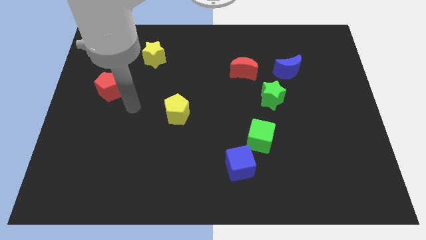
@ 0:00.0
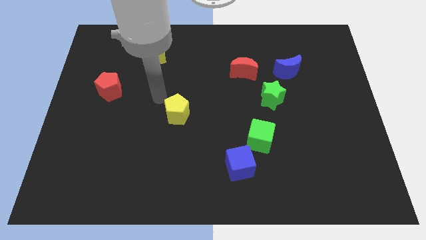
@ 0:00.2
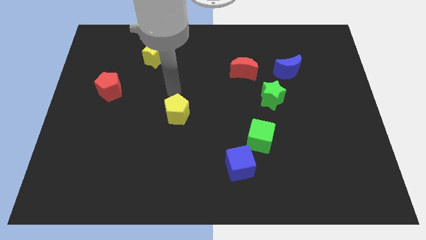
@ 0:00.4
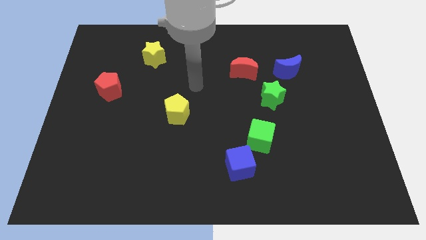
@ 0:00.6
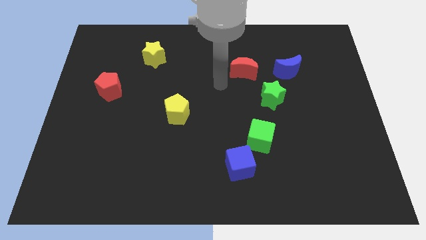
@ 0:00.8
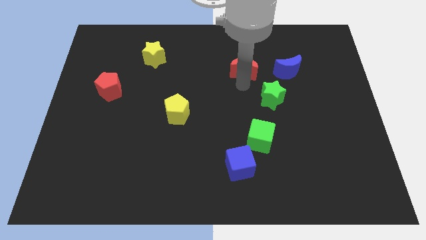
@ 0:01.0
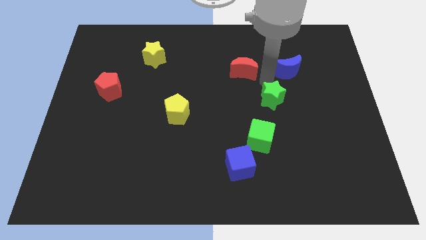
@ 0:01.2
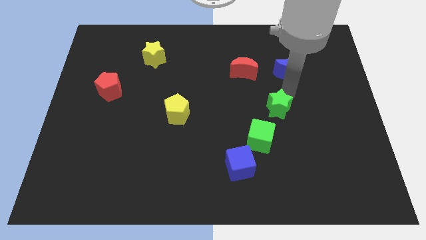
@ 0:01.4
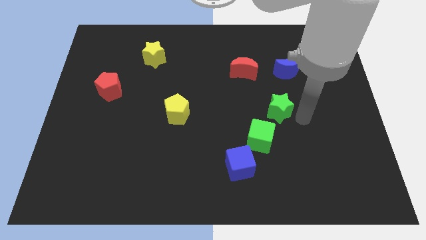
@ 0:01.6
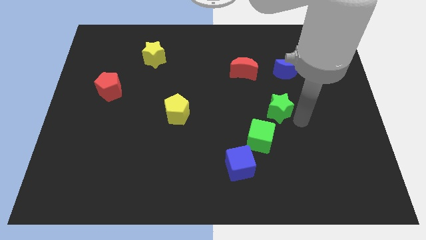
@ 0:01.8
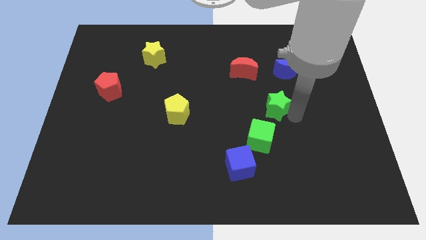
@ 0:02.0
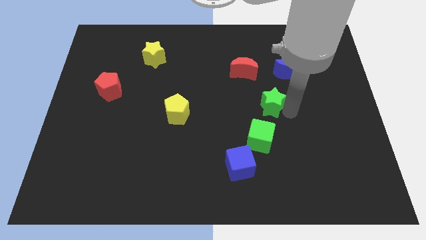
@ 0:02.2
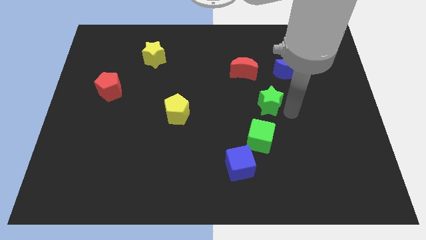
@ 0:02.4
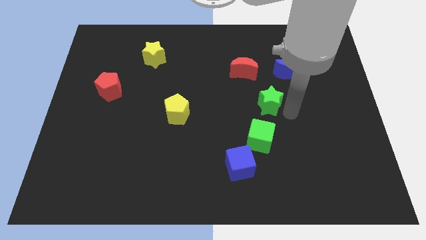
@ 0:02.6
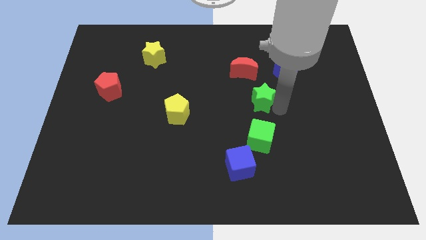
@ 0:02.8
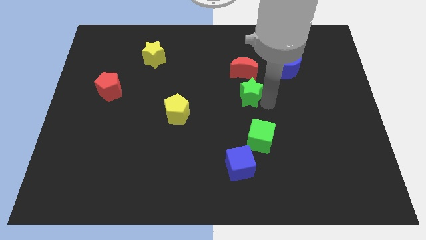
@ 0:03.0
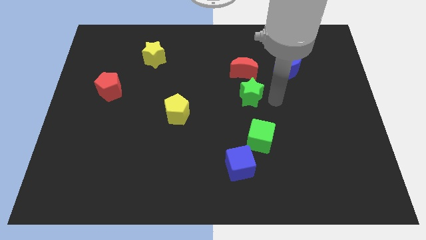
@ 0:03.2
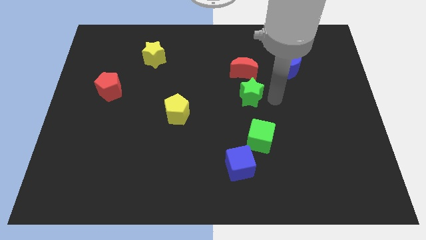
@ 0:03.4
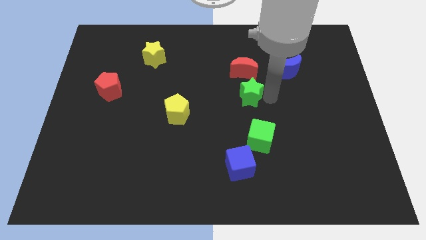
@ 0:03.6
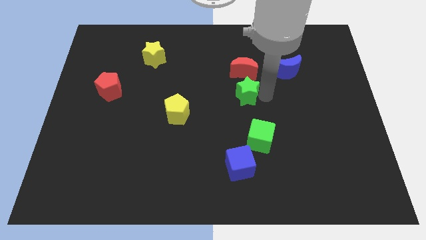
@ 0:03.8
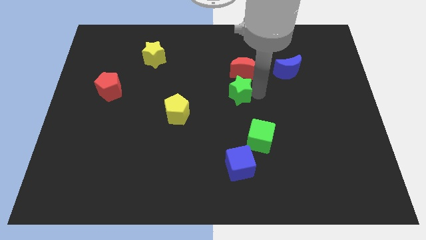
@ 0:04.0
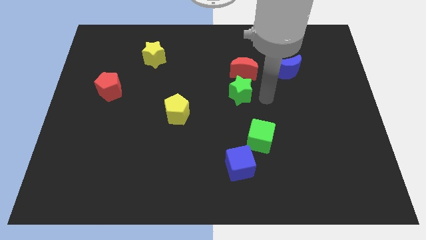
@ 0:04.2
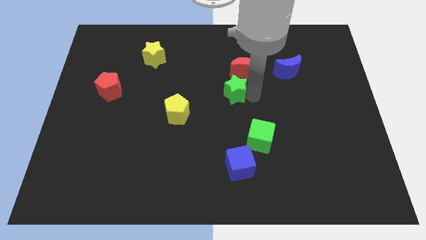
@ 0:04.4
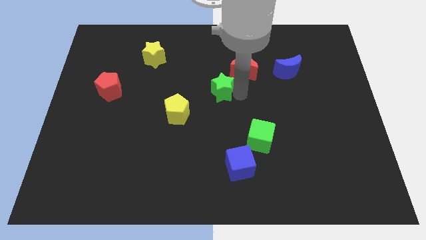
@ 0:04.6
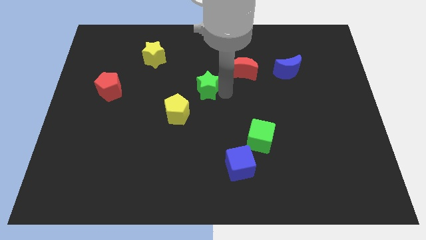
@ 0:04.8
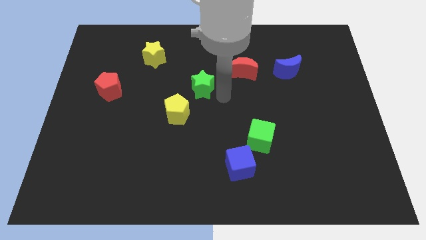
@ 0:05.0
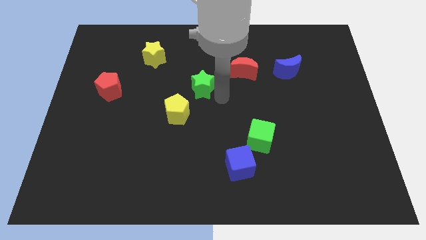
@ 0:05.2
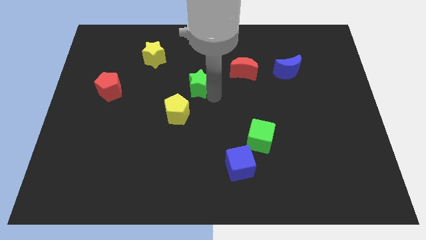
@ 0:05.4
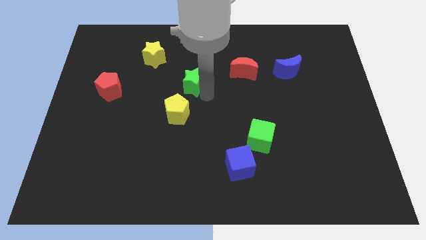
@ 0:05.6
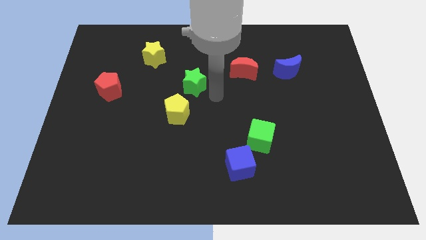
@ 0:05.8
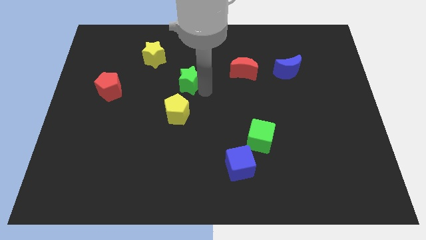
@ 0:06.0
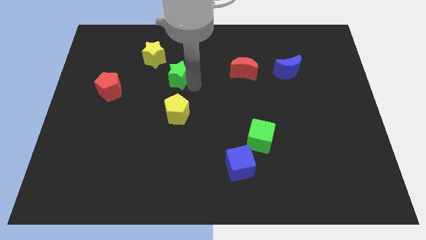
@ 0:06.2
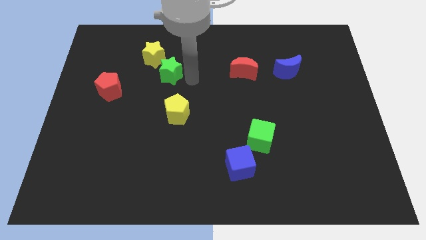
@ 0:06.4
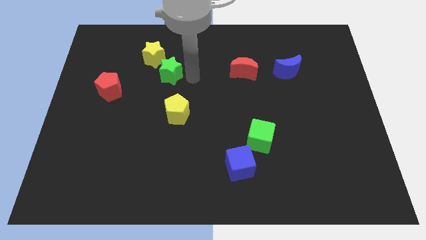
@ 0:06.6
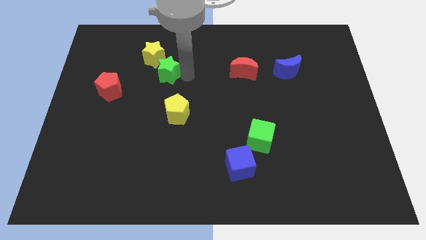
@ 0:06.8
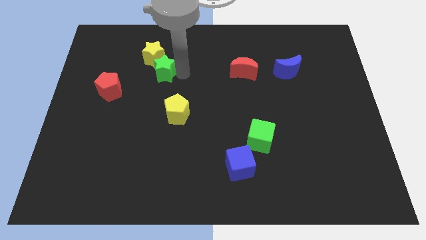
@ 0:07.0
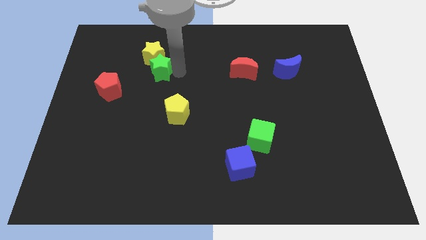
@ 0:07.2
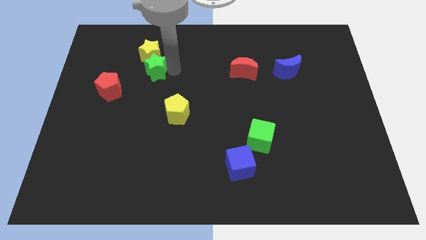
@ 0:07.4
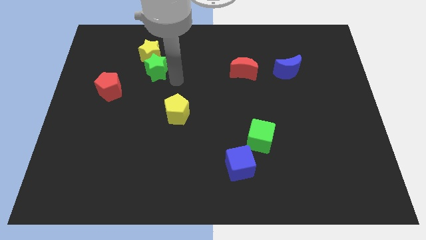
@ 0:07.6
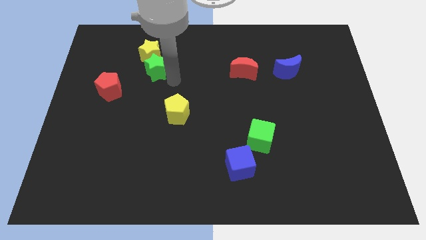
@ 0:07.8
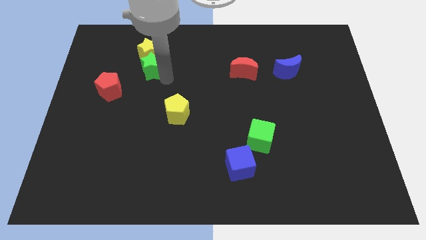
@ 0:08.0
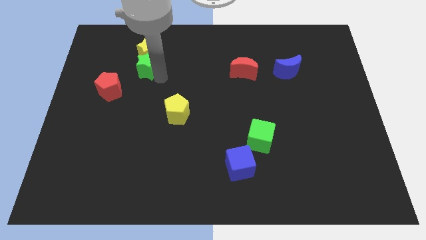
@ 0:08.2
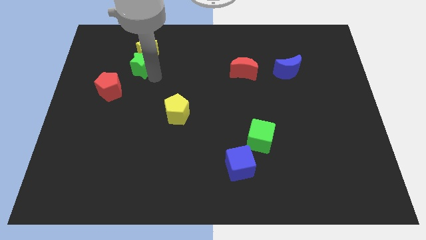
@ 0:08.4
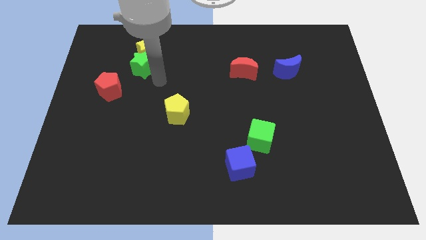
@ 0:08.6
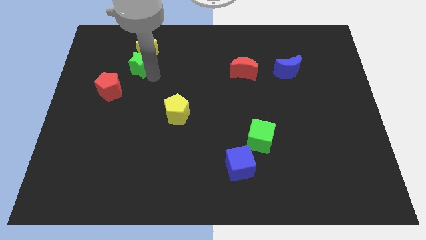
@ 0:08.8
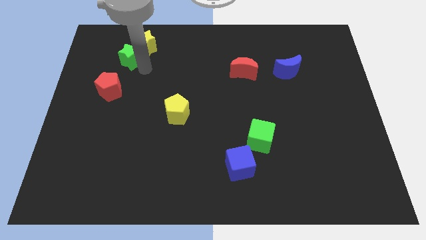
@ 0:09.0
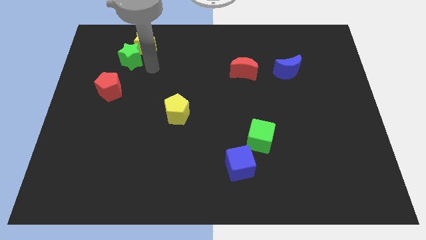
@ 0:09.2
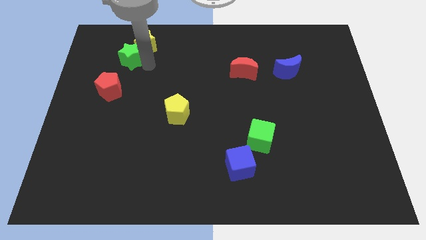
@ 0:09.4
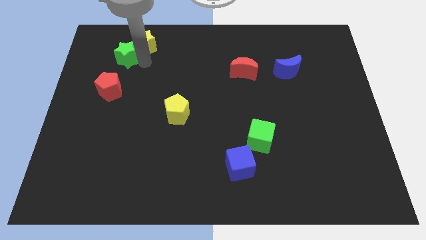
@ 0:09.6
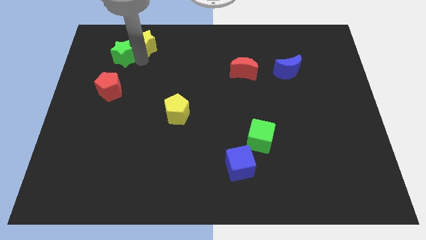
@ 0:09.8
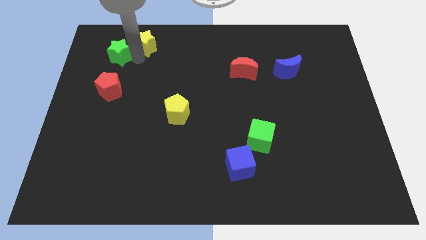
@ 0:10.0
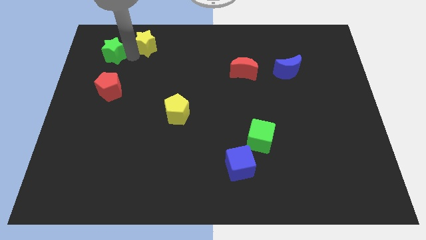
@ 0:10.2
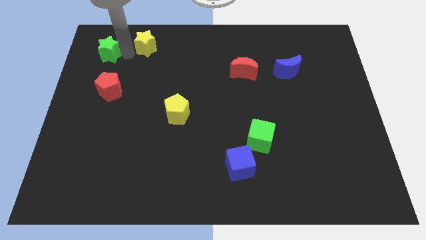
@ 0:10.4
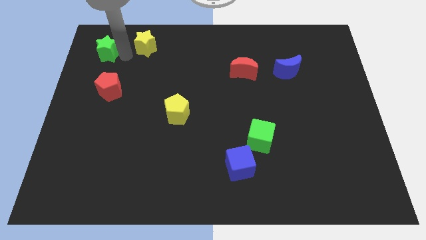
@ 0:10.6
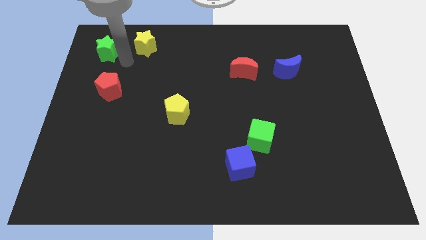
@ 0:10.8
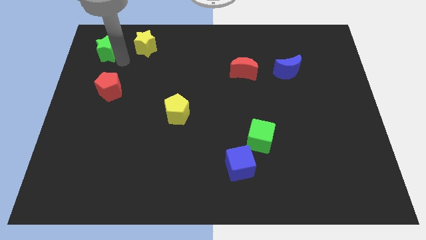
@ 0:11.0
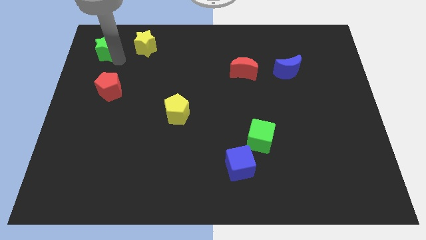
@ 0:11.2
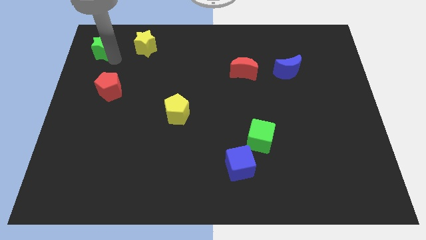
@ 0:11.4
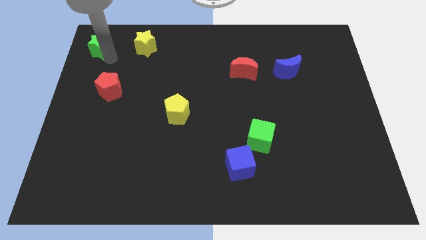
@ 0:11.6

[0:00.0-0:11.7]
put the green star to the top left of the board
